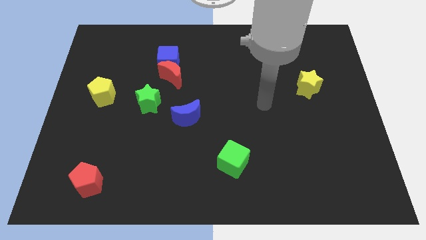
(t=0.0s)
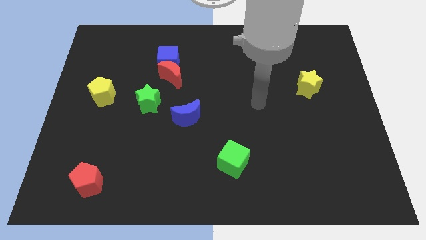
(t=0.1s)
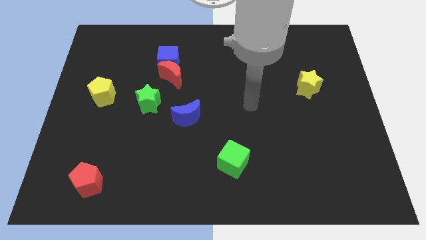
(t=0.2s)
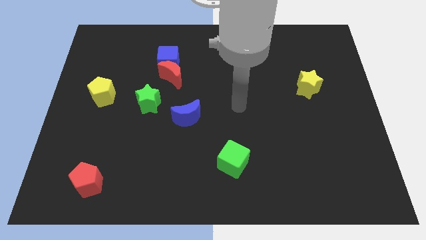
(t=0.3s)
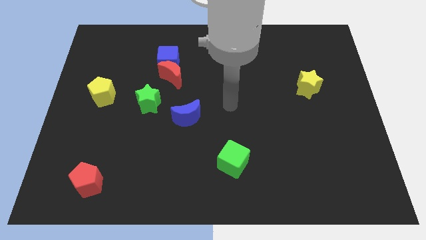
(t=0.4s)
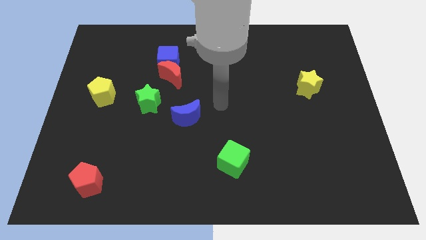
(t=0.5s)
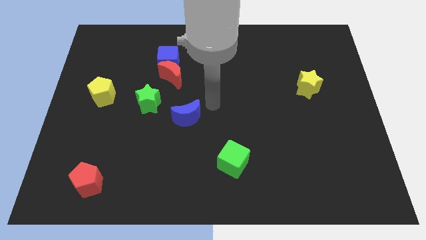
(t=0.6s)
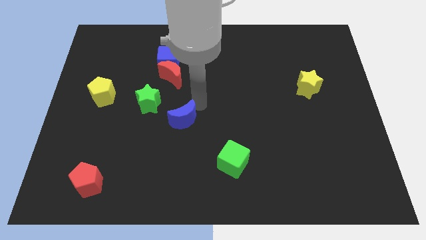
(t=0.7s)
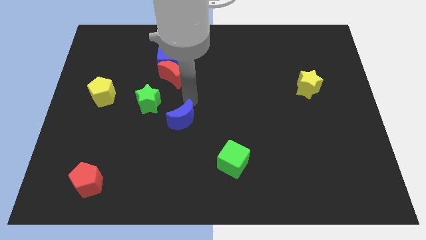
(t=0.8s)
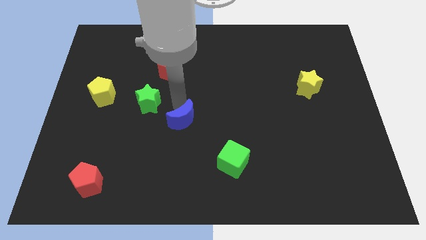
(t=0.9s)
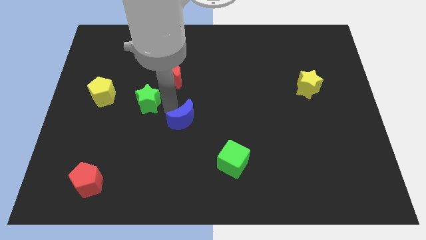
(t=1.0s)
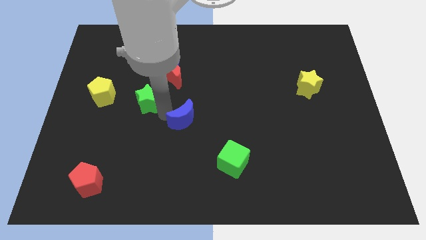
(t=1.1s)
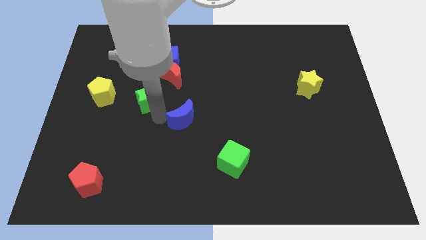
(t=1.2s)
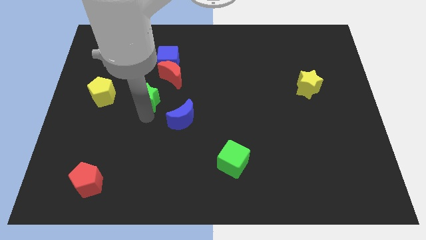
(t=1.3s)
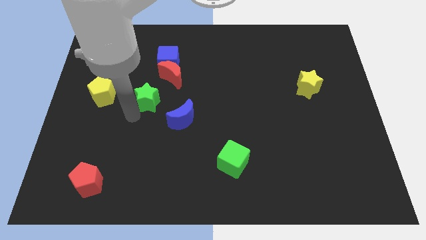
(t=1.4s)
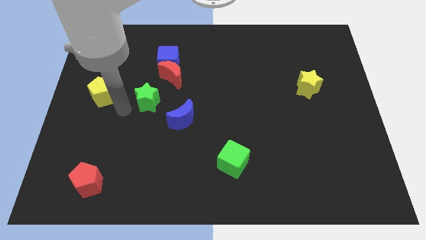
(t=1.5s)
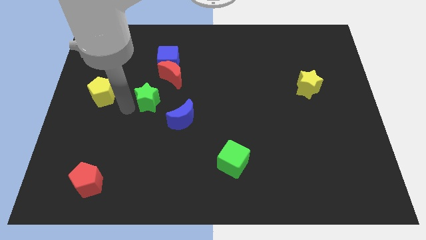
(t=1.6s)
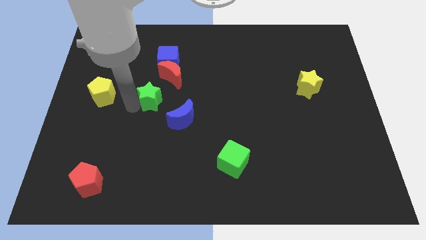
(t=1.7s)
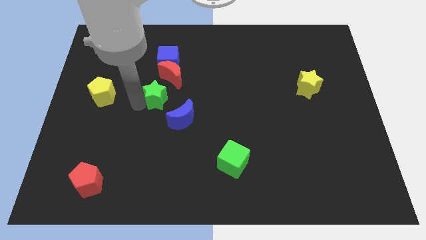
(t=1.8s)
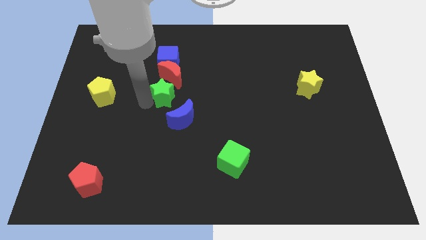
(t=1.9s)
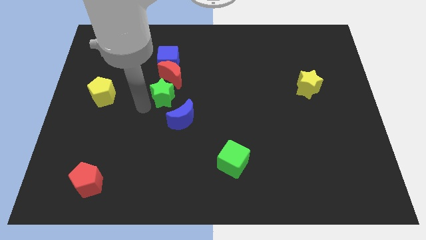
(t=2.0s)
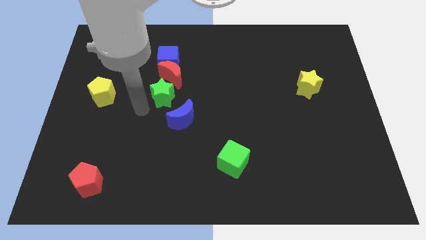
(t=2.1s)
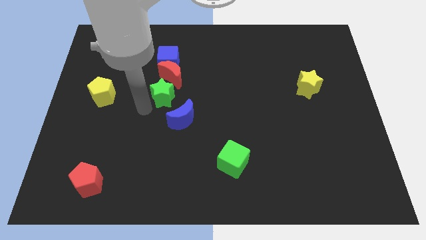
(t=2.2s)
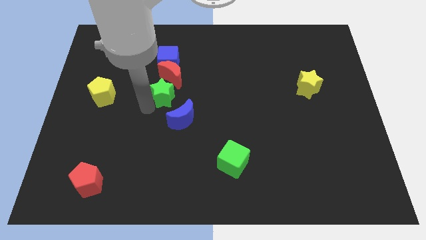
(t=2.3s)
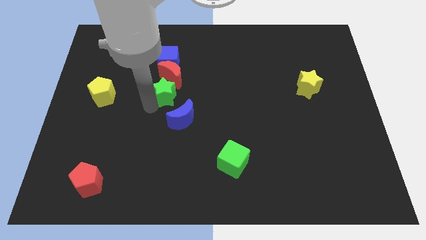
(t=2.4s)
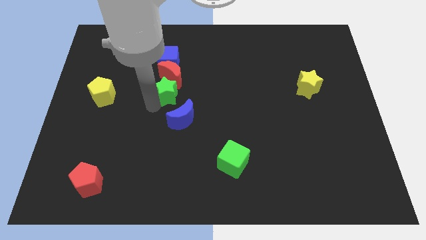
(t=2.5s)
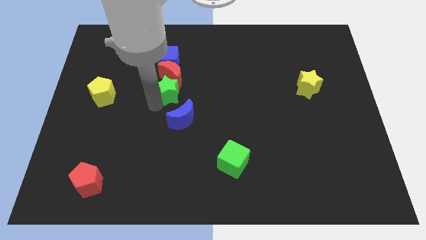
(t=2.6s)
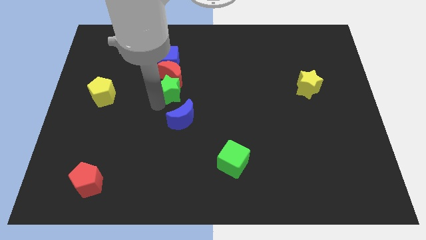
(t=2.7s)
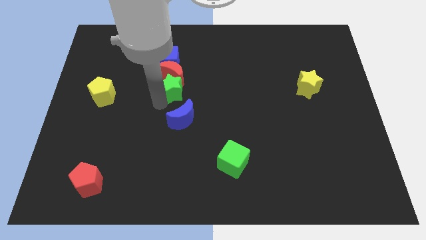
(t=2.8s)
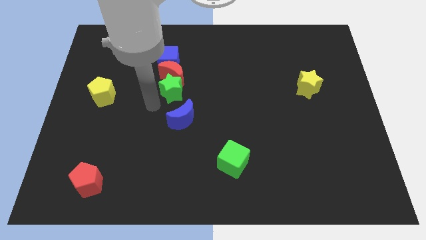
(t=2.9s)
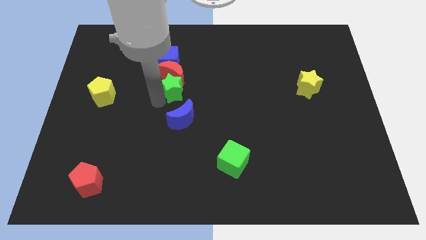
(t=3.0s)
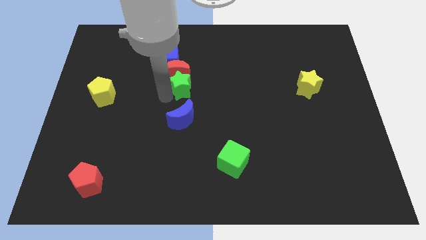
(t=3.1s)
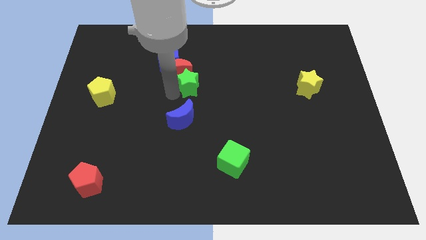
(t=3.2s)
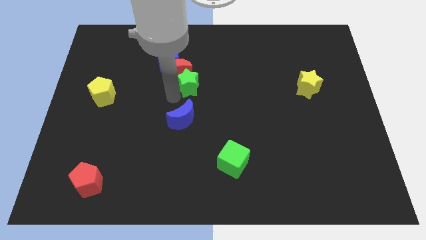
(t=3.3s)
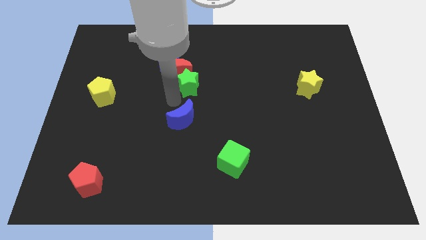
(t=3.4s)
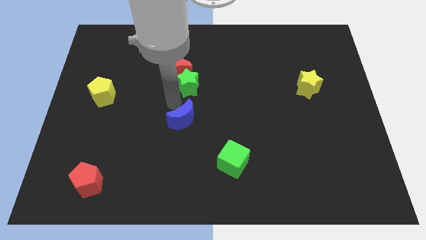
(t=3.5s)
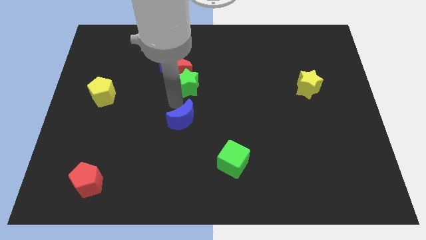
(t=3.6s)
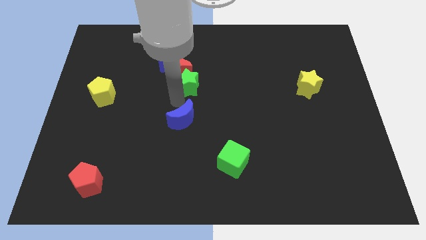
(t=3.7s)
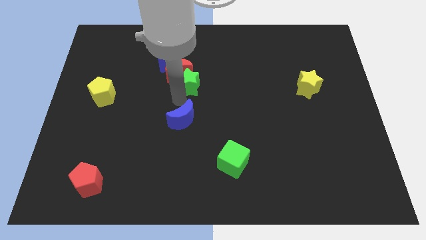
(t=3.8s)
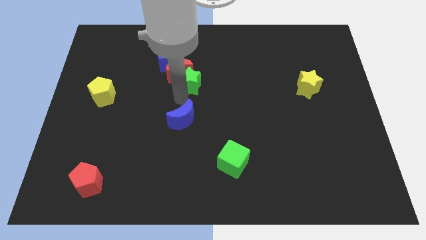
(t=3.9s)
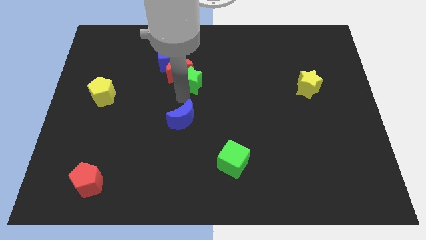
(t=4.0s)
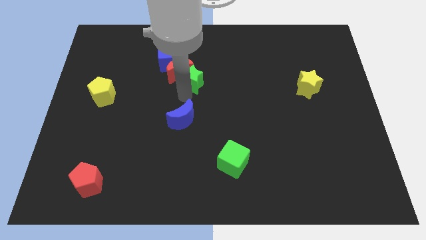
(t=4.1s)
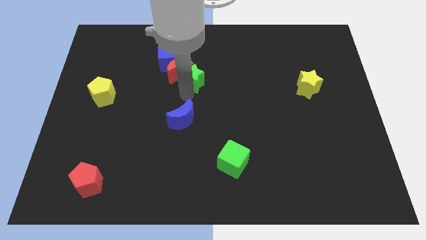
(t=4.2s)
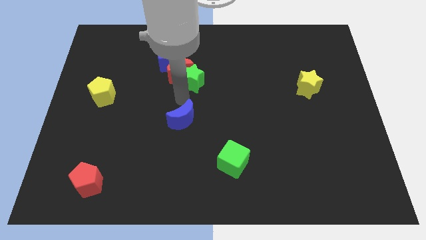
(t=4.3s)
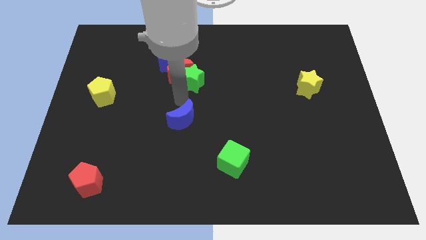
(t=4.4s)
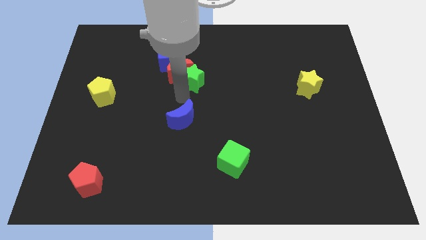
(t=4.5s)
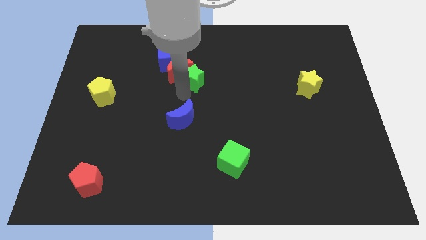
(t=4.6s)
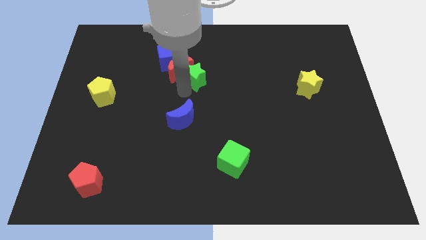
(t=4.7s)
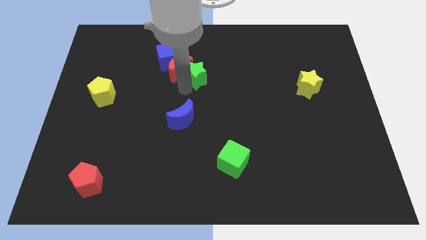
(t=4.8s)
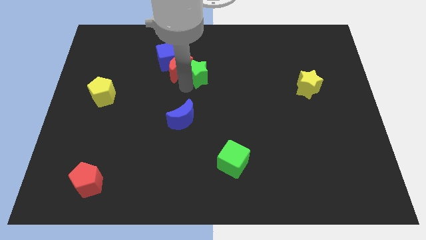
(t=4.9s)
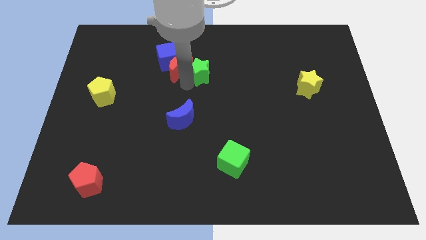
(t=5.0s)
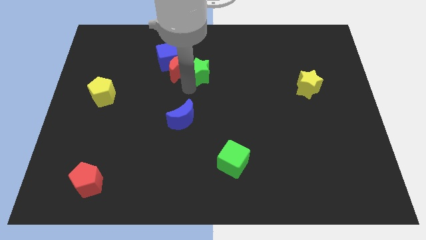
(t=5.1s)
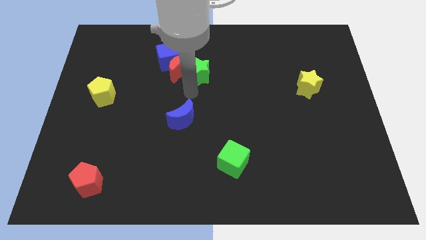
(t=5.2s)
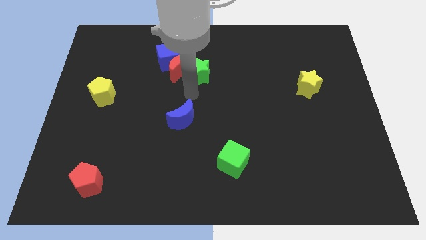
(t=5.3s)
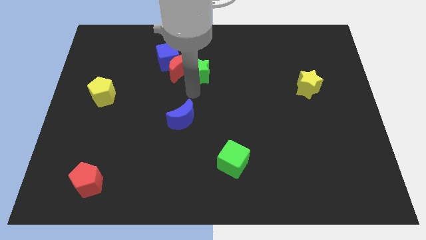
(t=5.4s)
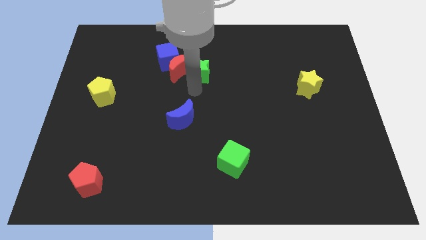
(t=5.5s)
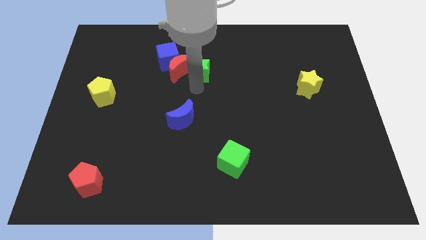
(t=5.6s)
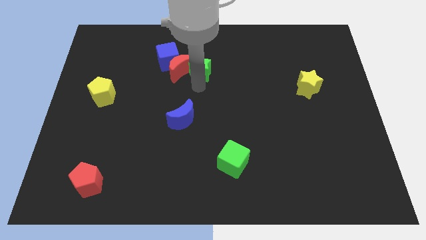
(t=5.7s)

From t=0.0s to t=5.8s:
push the green star just right of the blue cube

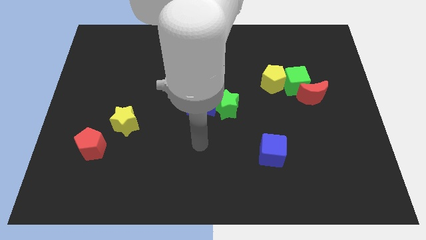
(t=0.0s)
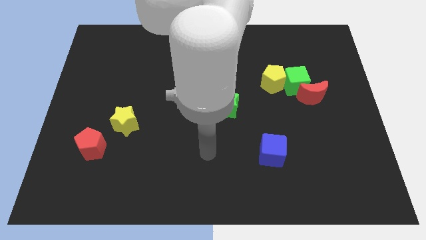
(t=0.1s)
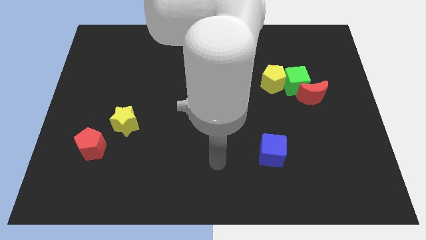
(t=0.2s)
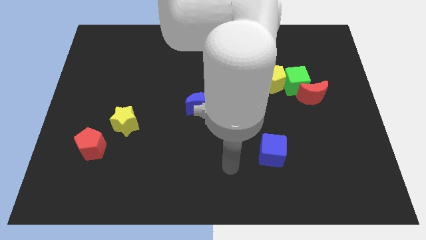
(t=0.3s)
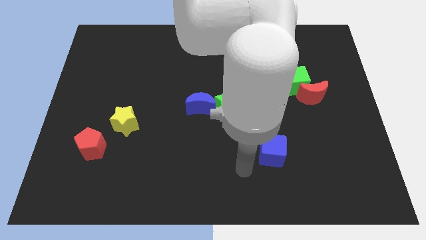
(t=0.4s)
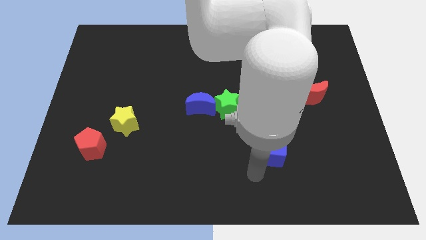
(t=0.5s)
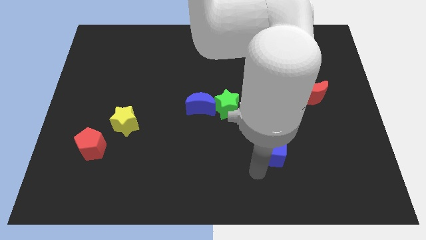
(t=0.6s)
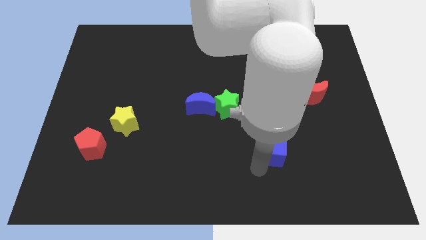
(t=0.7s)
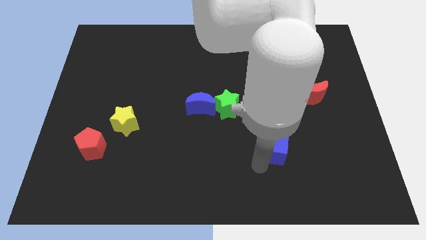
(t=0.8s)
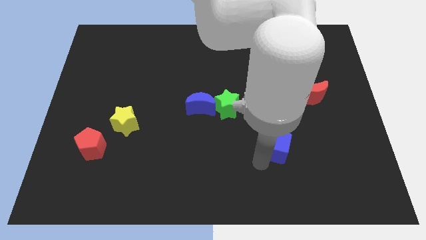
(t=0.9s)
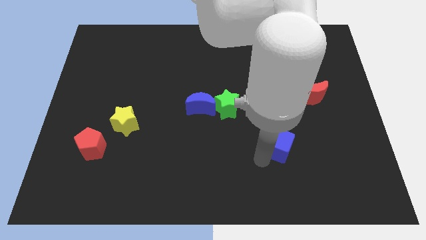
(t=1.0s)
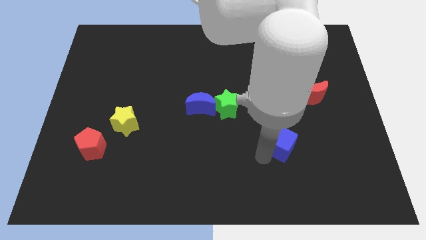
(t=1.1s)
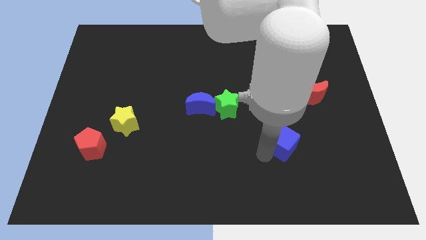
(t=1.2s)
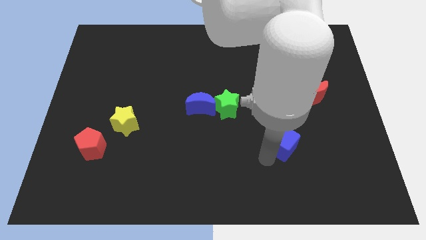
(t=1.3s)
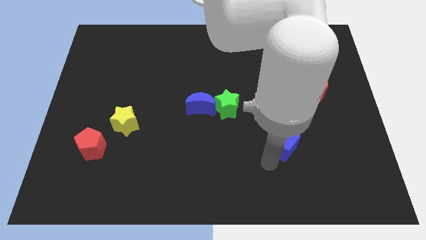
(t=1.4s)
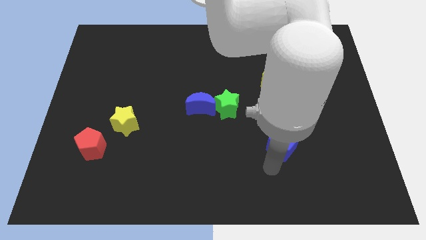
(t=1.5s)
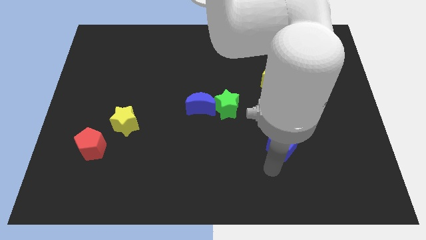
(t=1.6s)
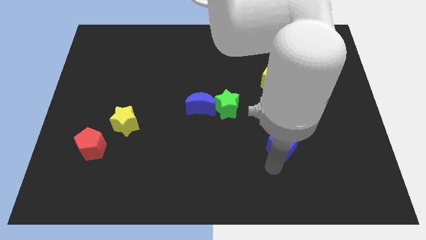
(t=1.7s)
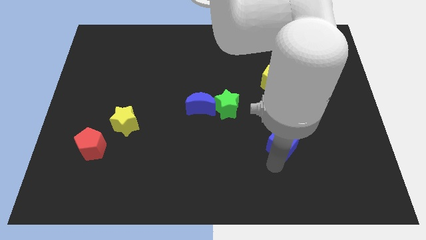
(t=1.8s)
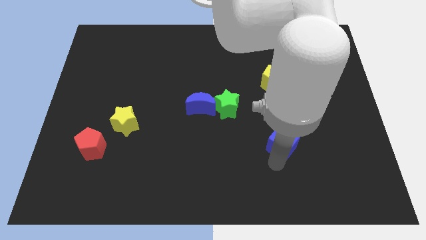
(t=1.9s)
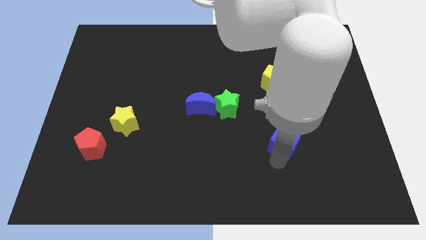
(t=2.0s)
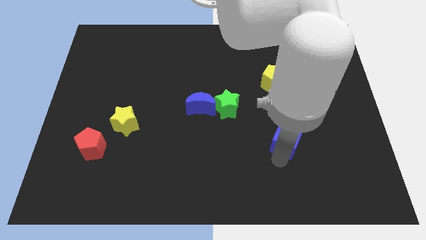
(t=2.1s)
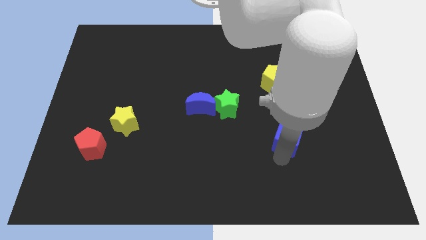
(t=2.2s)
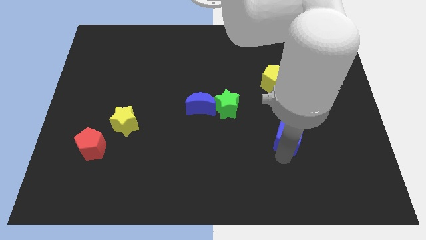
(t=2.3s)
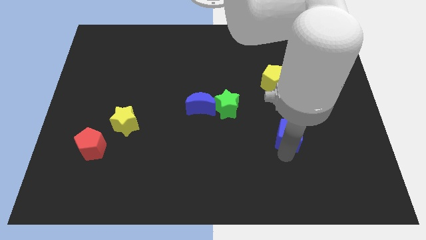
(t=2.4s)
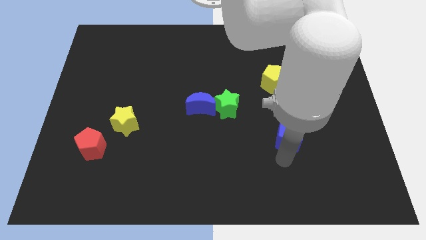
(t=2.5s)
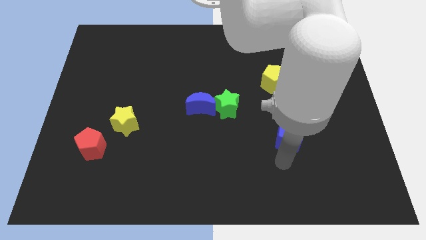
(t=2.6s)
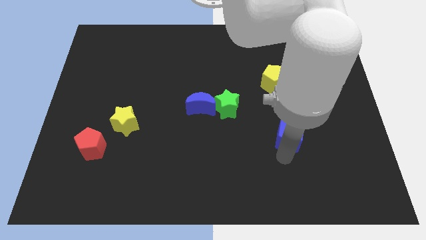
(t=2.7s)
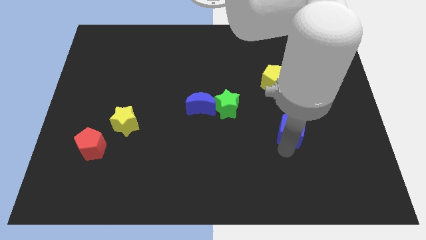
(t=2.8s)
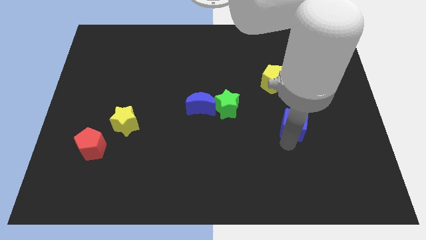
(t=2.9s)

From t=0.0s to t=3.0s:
slide the blue cube diagonally down and to the left of the red moon
